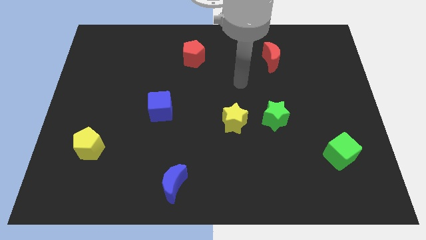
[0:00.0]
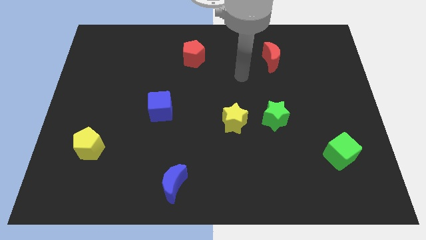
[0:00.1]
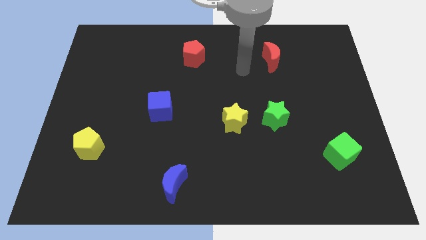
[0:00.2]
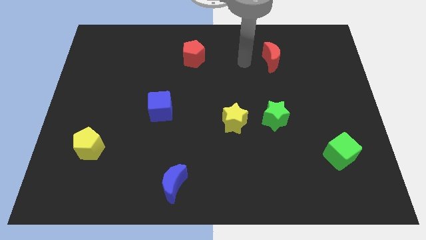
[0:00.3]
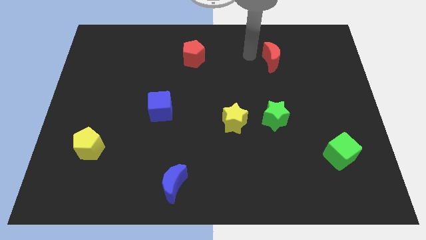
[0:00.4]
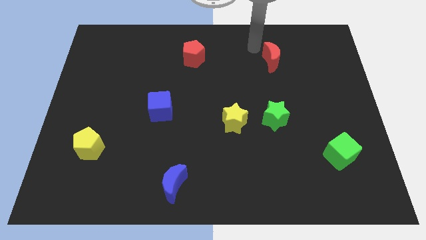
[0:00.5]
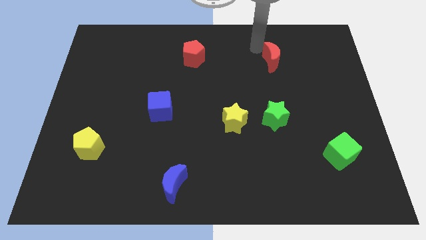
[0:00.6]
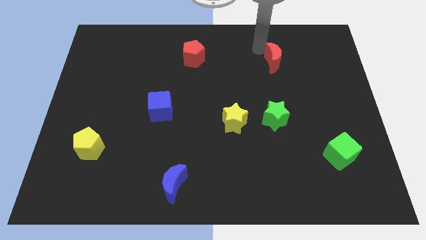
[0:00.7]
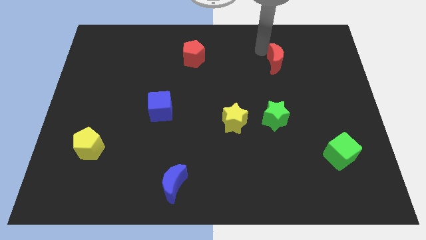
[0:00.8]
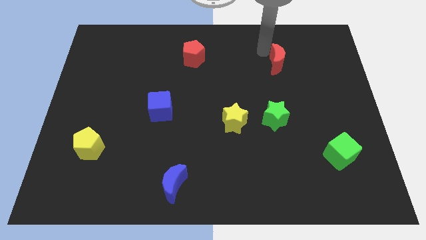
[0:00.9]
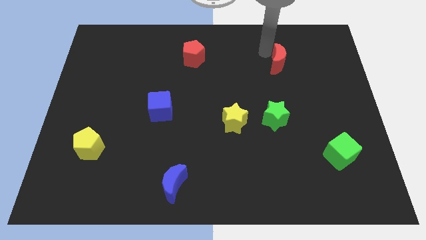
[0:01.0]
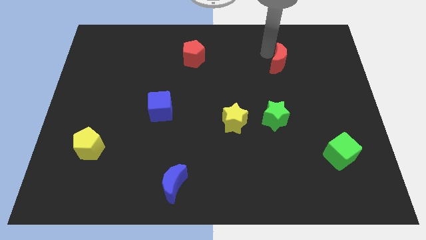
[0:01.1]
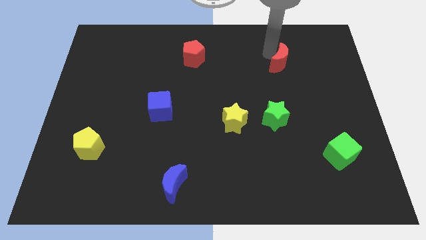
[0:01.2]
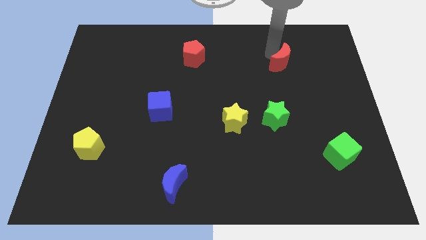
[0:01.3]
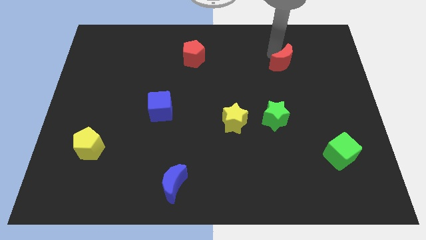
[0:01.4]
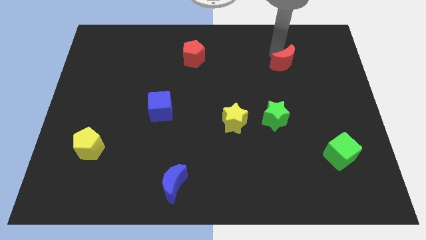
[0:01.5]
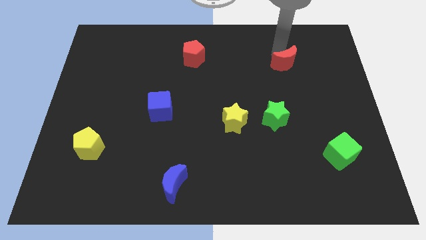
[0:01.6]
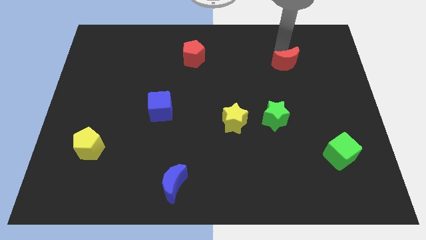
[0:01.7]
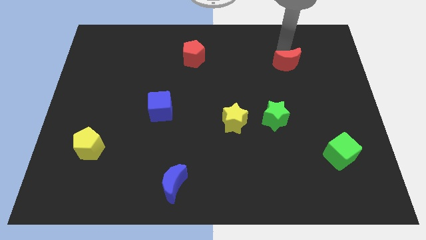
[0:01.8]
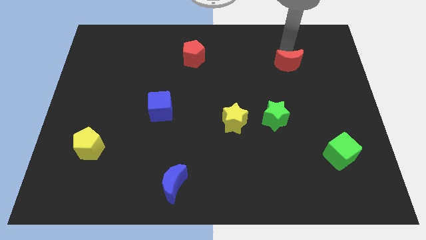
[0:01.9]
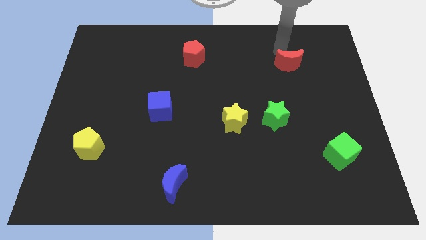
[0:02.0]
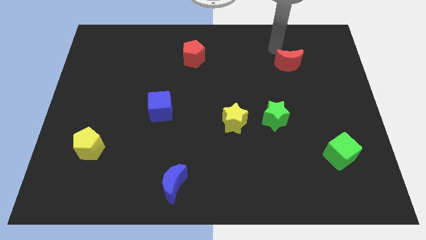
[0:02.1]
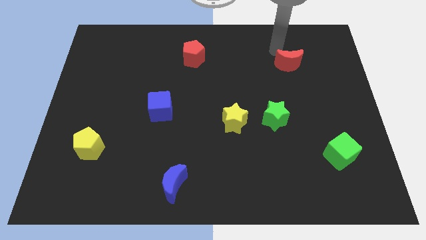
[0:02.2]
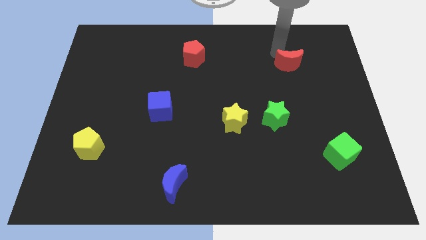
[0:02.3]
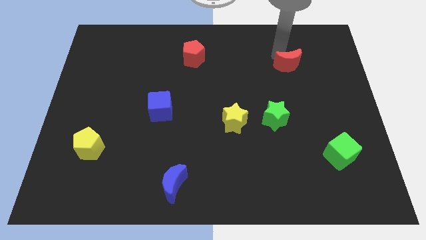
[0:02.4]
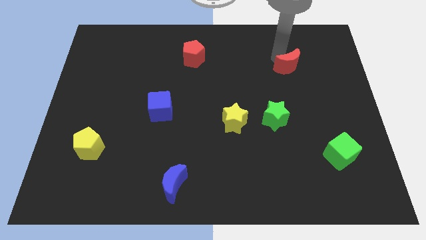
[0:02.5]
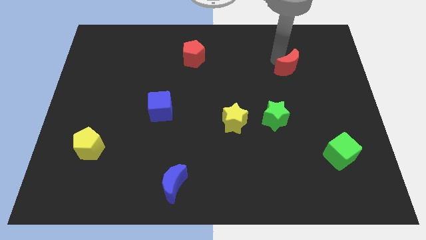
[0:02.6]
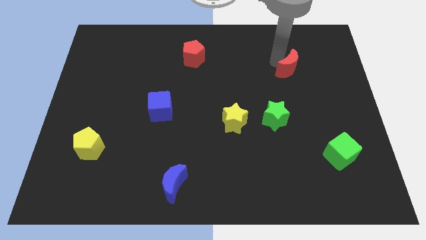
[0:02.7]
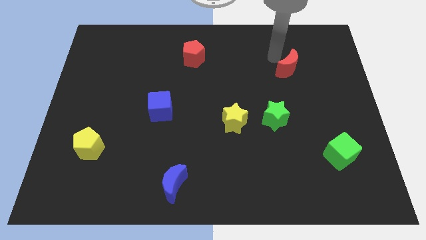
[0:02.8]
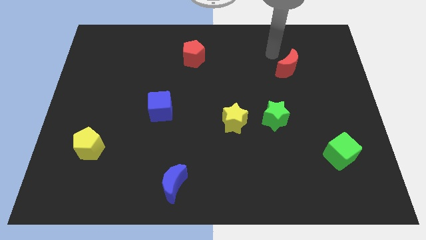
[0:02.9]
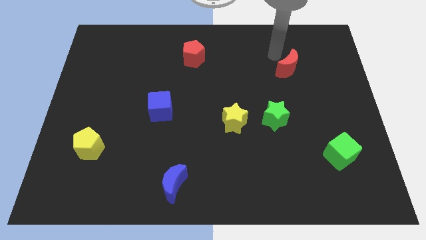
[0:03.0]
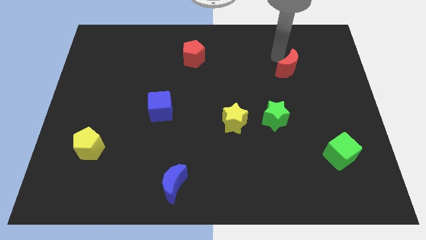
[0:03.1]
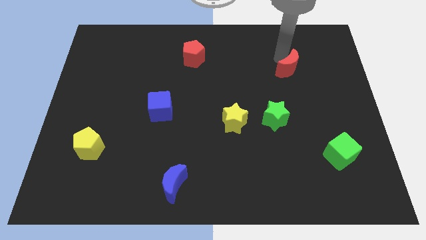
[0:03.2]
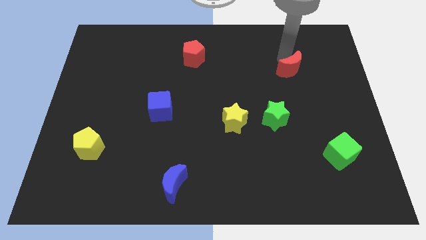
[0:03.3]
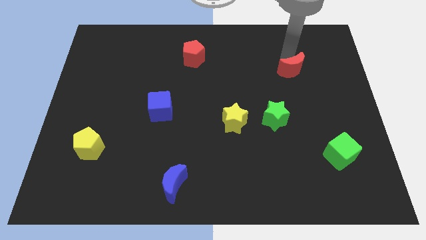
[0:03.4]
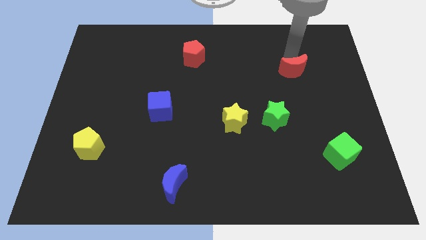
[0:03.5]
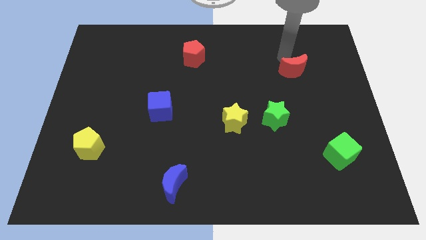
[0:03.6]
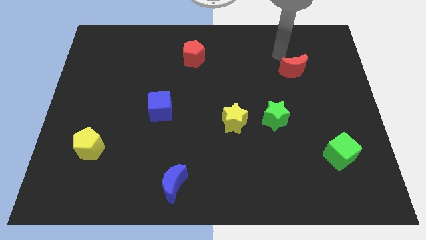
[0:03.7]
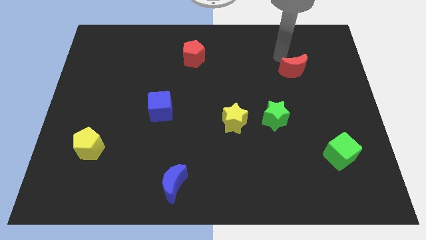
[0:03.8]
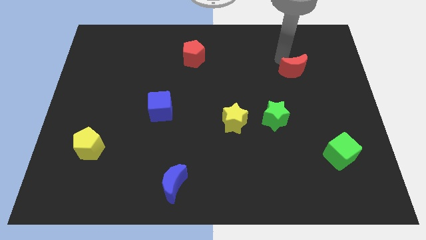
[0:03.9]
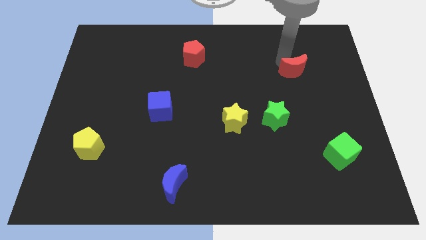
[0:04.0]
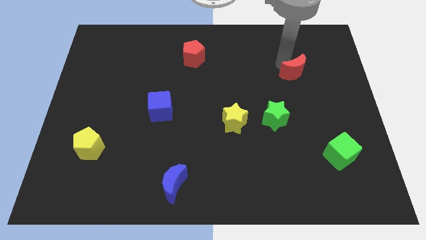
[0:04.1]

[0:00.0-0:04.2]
push the red moon a little bit downwards and right diagonally

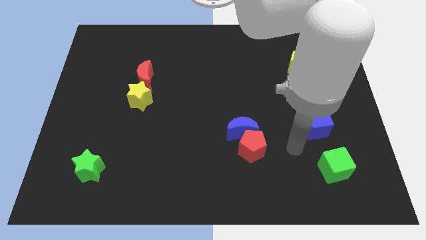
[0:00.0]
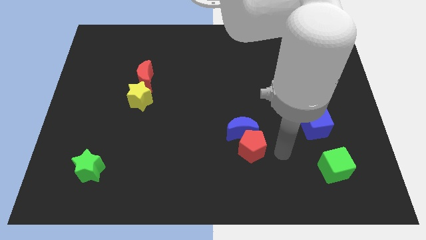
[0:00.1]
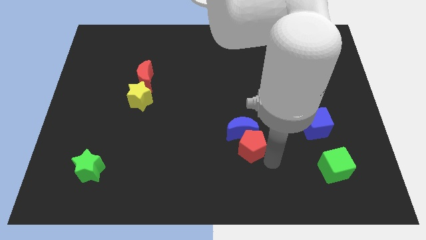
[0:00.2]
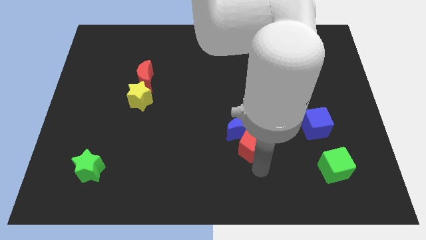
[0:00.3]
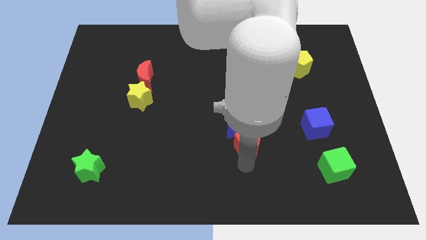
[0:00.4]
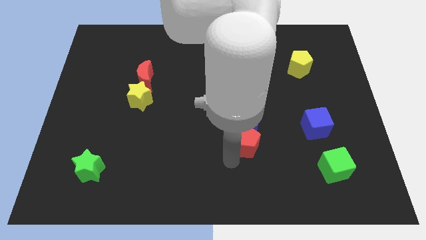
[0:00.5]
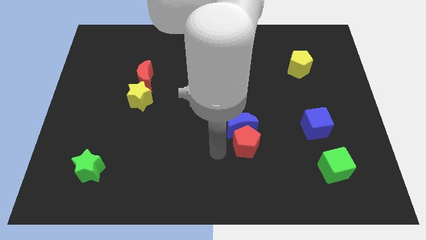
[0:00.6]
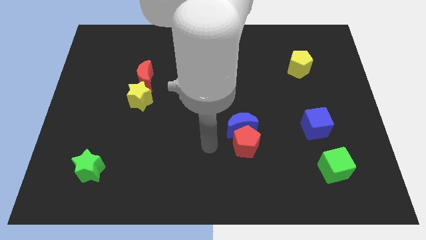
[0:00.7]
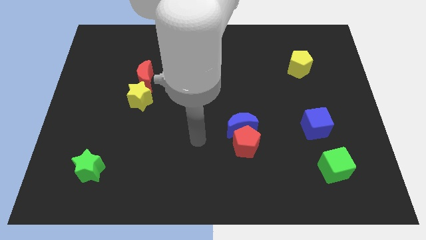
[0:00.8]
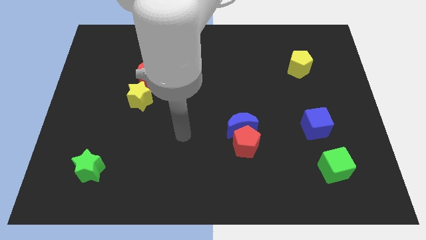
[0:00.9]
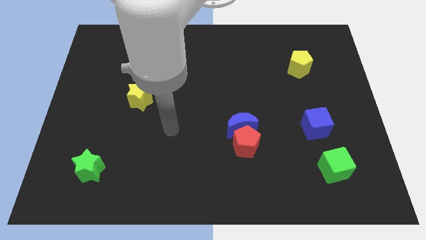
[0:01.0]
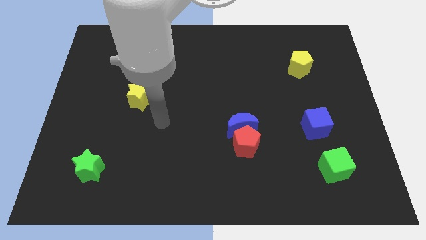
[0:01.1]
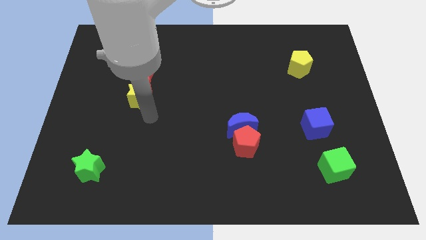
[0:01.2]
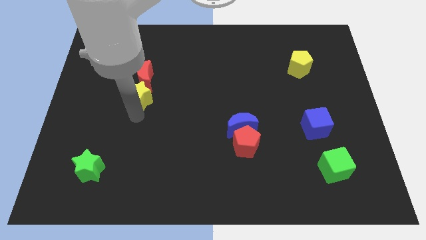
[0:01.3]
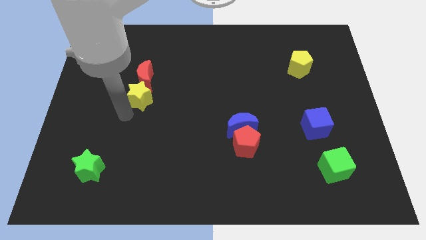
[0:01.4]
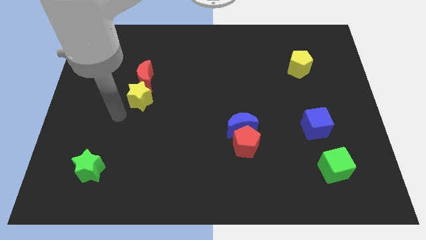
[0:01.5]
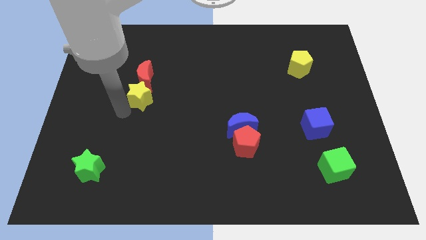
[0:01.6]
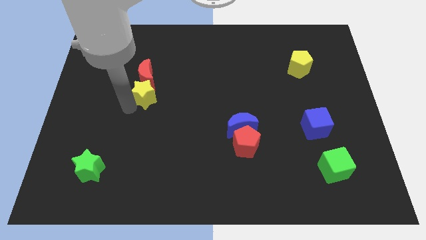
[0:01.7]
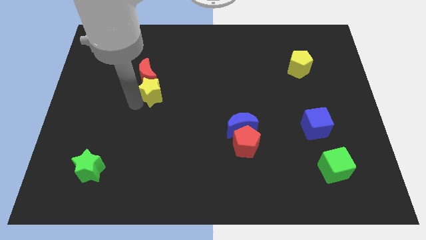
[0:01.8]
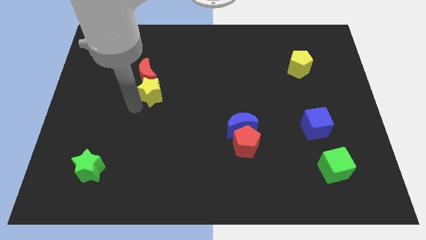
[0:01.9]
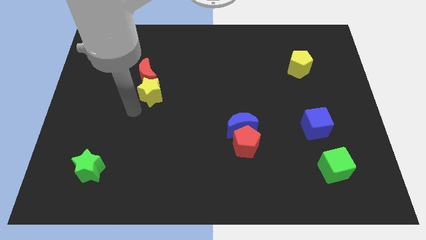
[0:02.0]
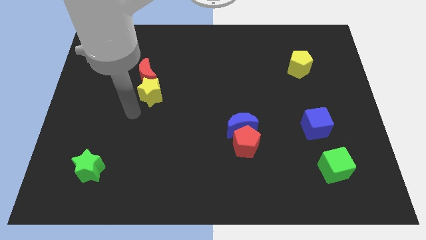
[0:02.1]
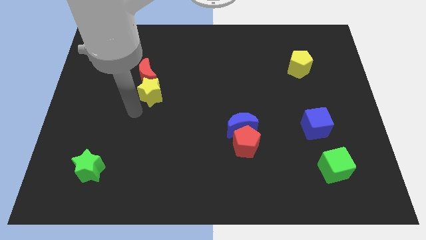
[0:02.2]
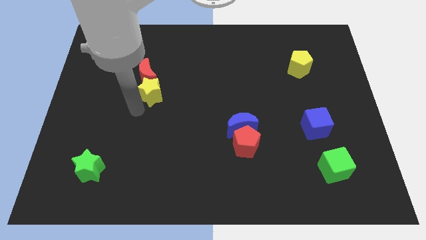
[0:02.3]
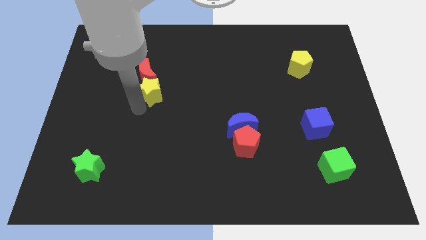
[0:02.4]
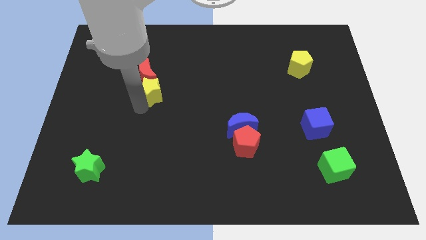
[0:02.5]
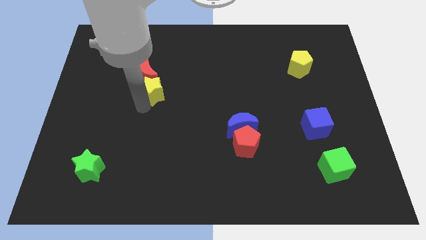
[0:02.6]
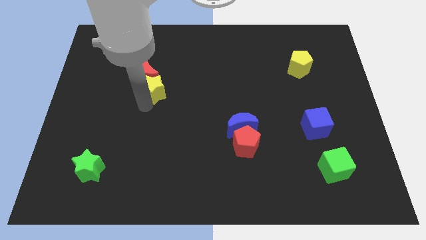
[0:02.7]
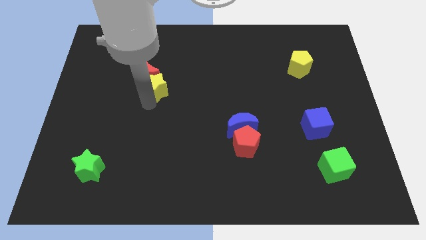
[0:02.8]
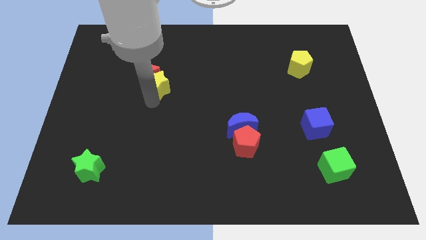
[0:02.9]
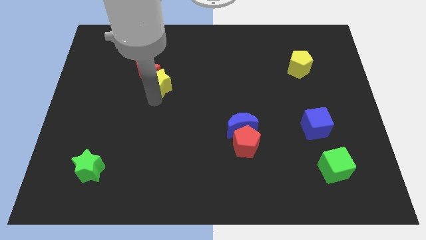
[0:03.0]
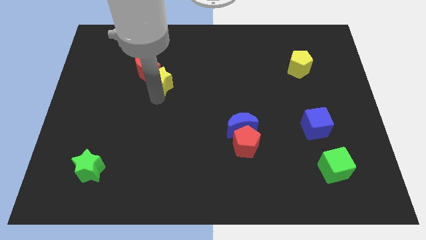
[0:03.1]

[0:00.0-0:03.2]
push the yellow star up and to the right somewhat

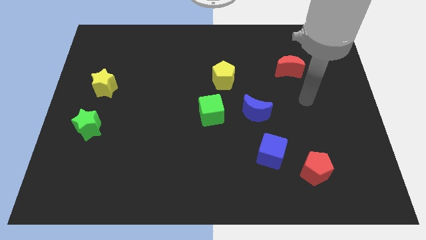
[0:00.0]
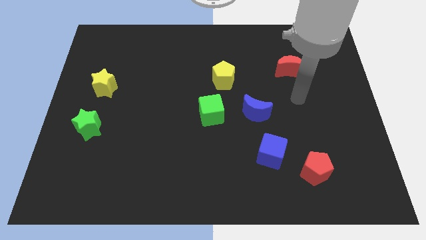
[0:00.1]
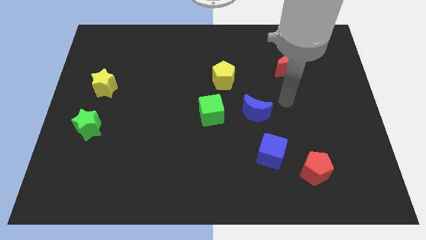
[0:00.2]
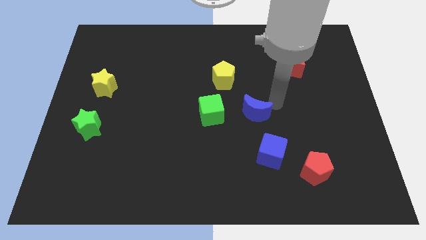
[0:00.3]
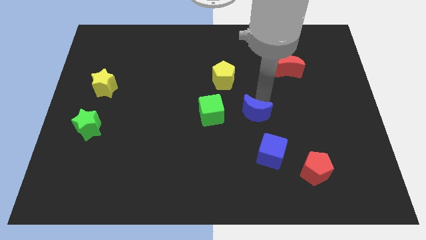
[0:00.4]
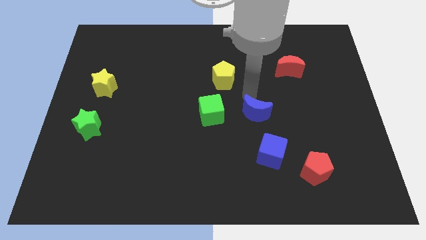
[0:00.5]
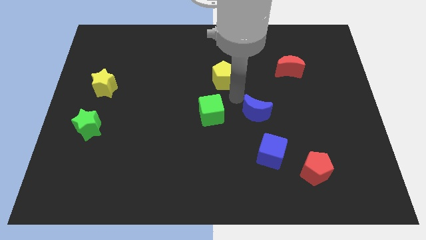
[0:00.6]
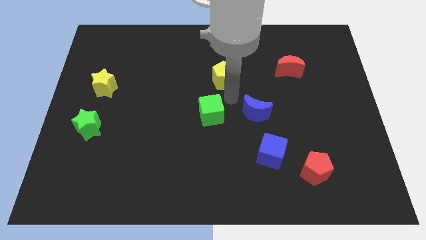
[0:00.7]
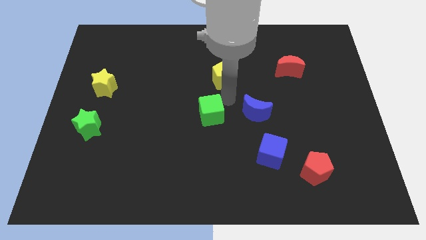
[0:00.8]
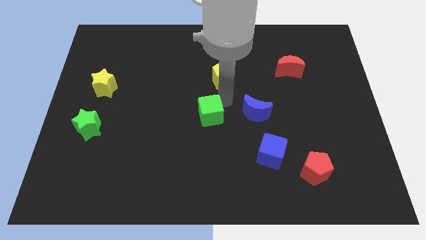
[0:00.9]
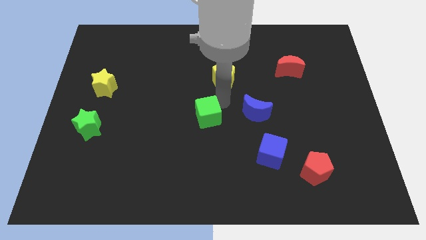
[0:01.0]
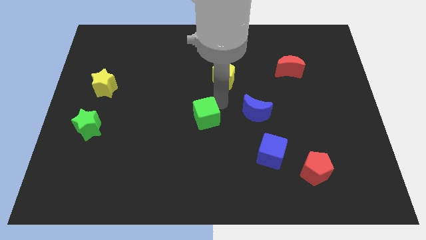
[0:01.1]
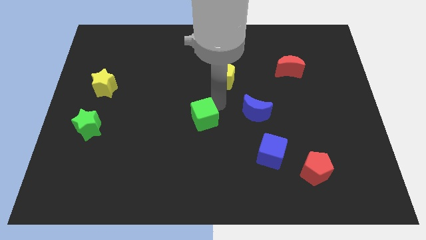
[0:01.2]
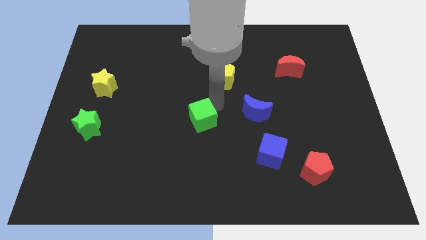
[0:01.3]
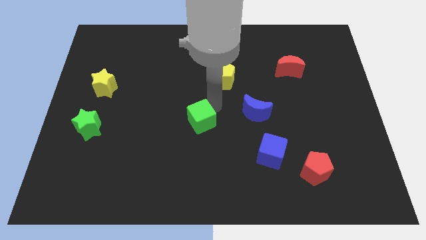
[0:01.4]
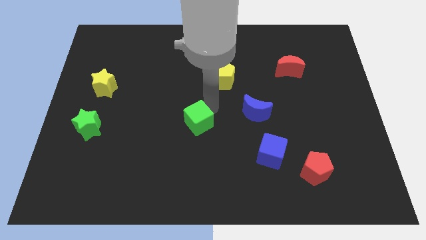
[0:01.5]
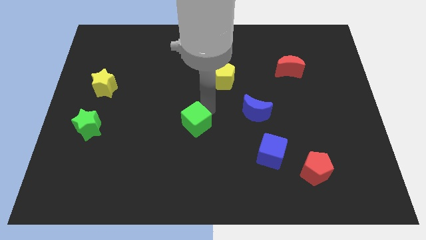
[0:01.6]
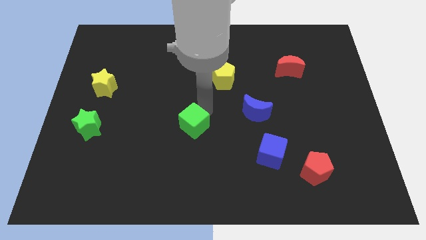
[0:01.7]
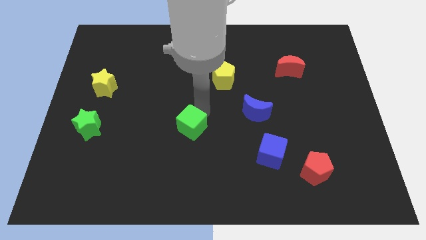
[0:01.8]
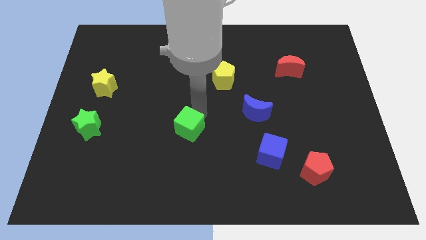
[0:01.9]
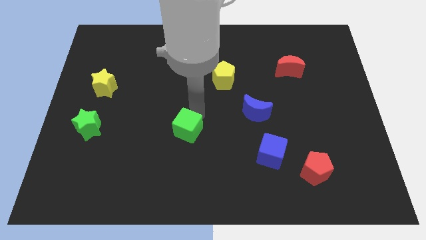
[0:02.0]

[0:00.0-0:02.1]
slightly push the green cube downwards and to the left diagonally
